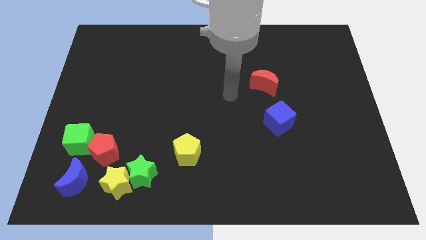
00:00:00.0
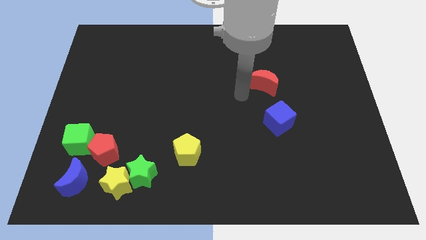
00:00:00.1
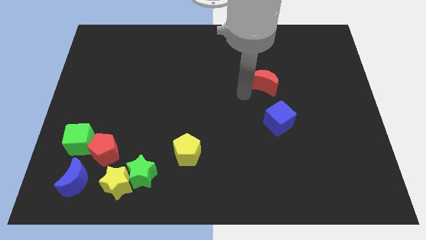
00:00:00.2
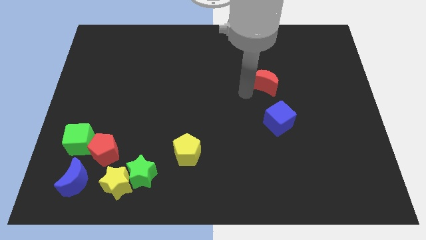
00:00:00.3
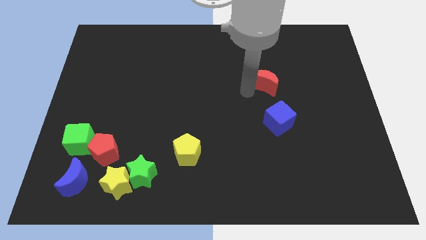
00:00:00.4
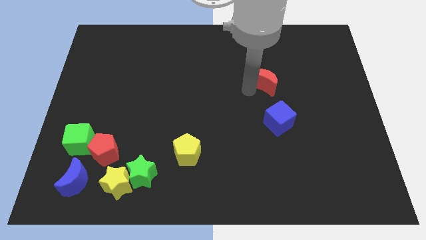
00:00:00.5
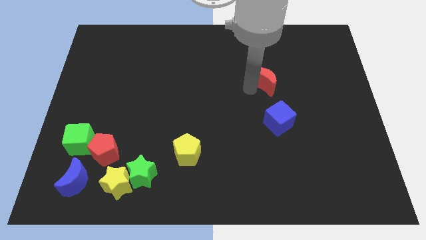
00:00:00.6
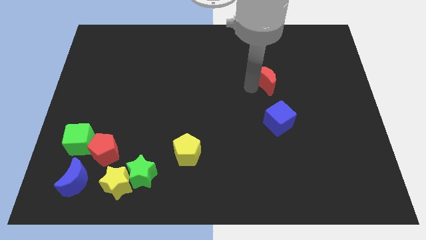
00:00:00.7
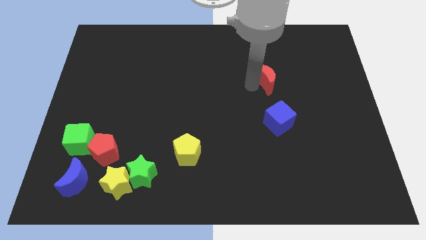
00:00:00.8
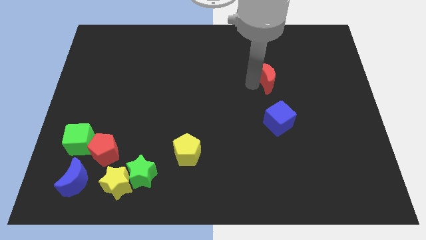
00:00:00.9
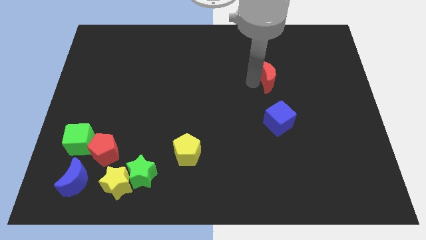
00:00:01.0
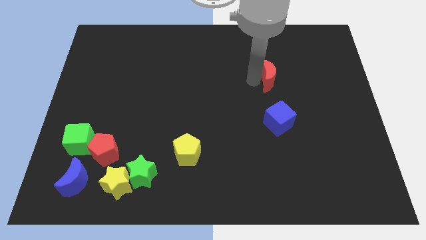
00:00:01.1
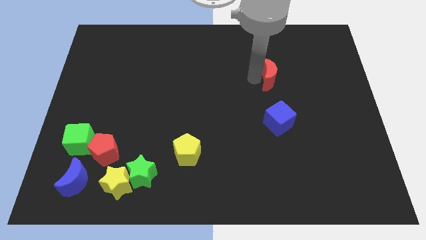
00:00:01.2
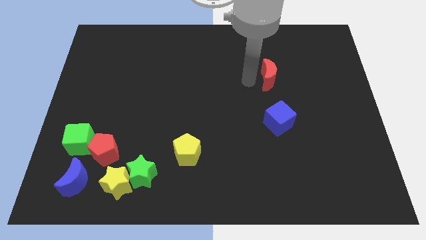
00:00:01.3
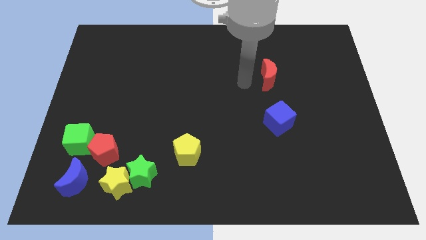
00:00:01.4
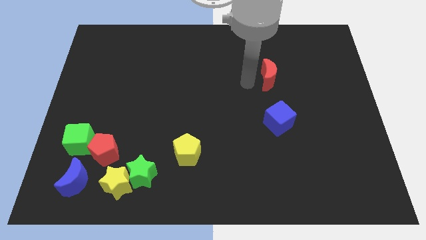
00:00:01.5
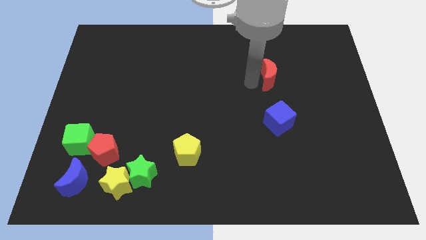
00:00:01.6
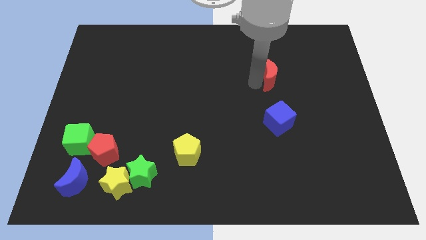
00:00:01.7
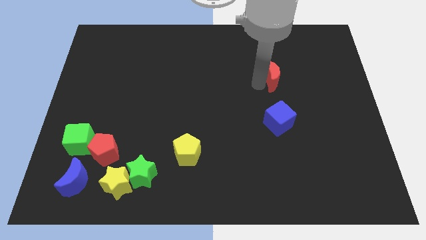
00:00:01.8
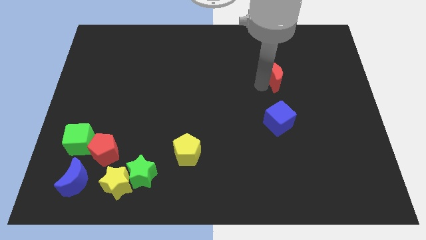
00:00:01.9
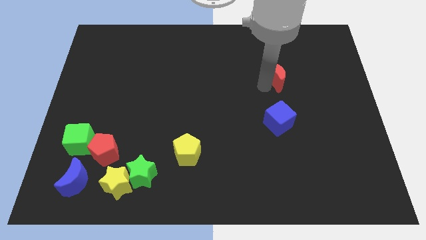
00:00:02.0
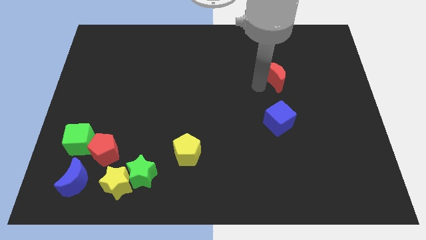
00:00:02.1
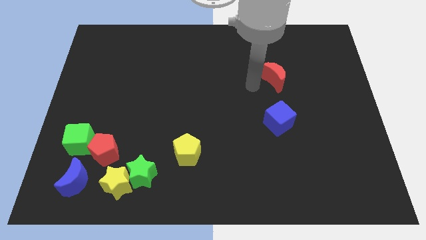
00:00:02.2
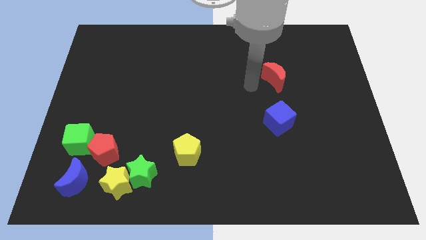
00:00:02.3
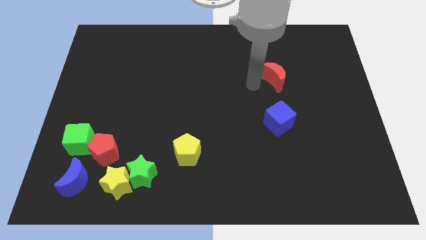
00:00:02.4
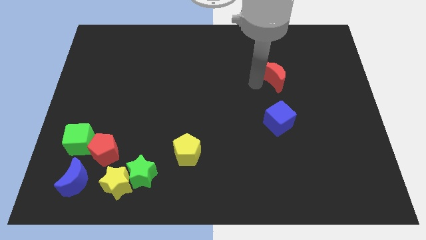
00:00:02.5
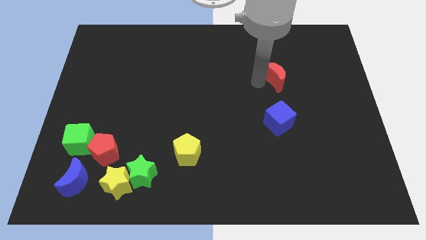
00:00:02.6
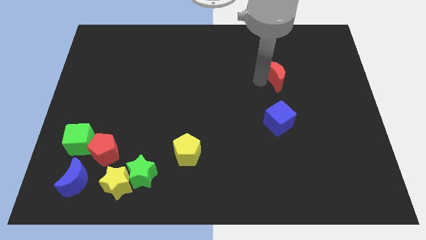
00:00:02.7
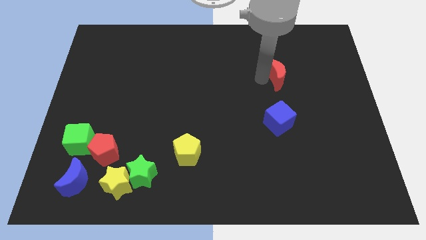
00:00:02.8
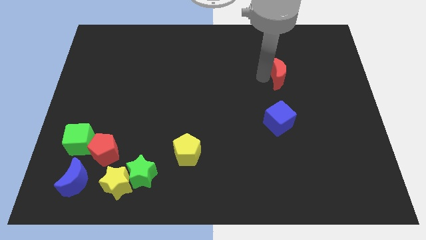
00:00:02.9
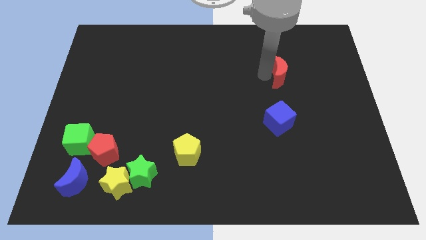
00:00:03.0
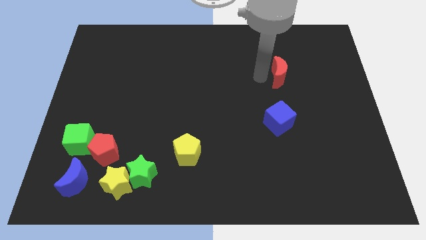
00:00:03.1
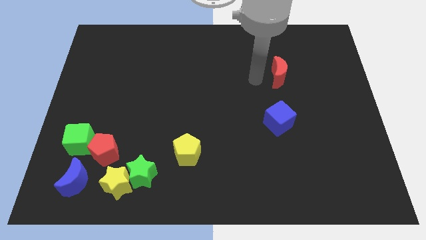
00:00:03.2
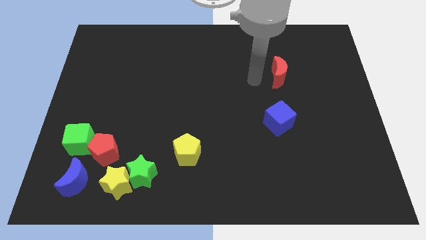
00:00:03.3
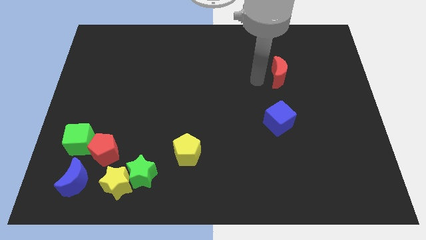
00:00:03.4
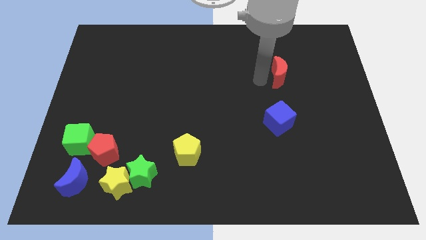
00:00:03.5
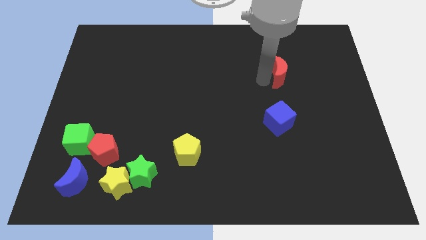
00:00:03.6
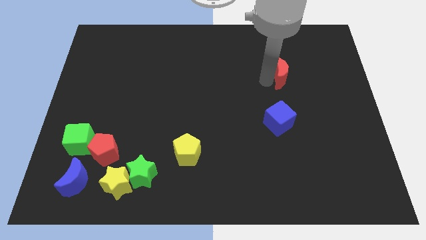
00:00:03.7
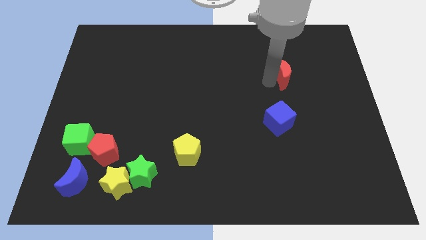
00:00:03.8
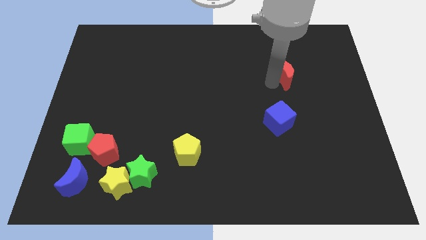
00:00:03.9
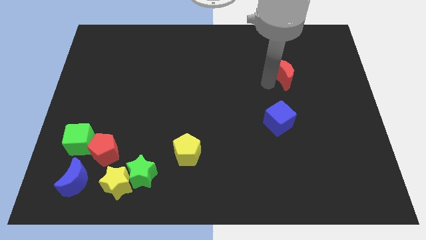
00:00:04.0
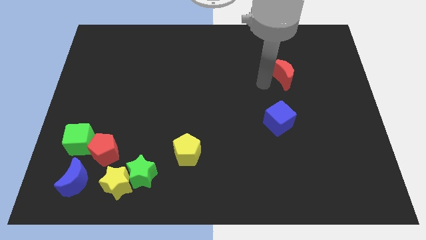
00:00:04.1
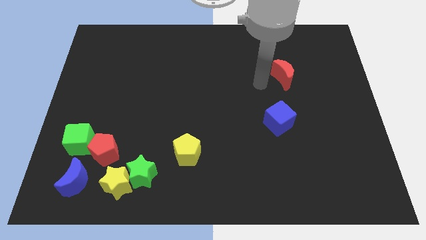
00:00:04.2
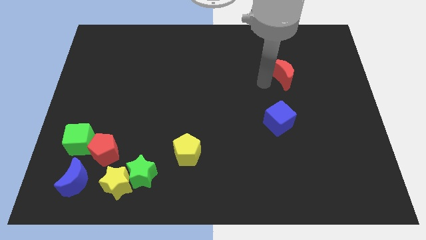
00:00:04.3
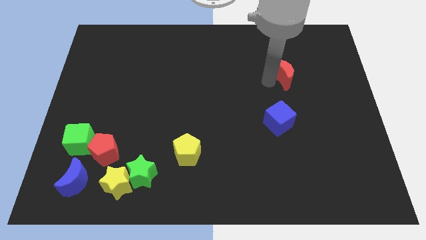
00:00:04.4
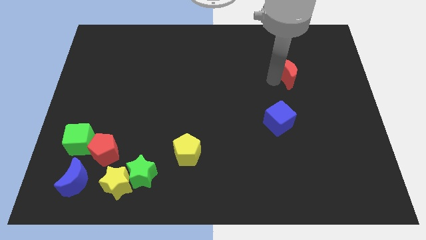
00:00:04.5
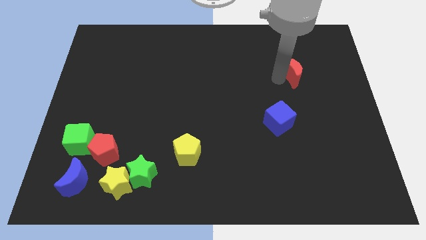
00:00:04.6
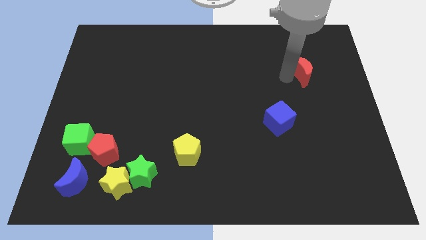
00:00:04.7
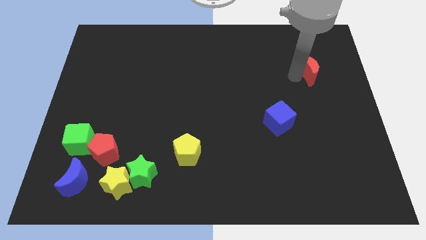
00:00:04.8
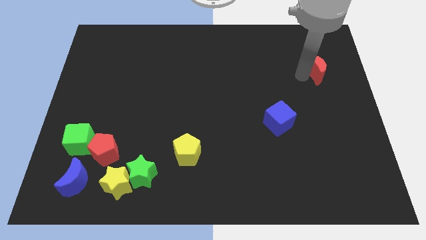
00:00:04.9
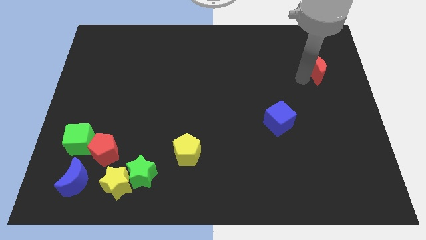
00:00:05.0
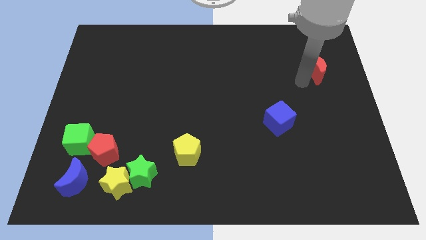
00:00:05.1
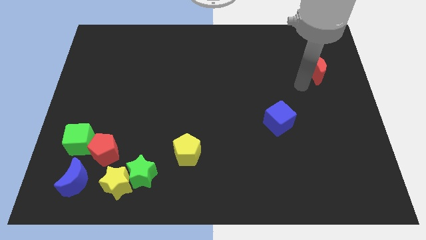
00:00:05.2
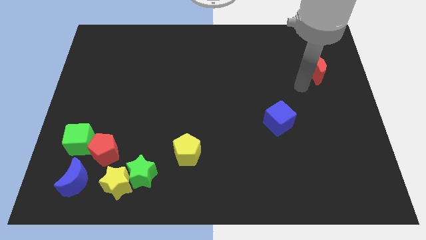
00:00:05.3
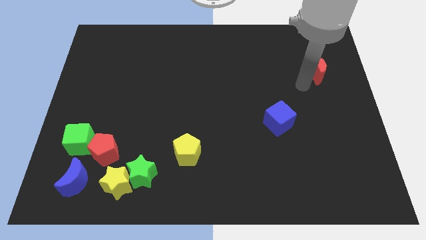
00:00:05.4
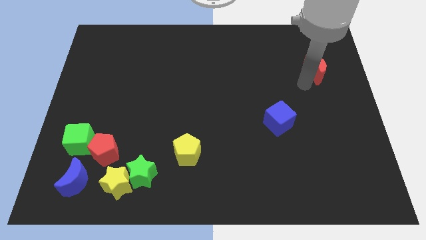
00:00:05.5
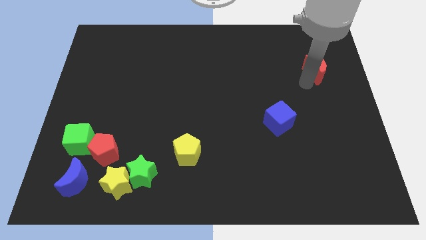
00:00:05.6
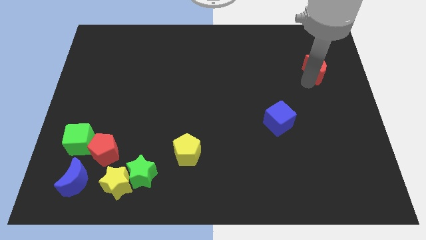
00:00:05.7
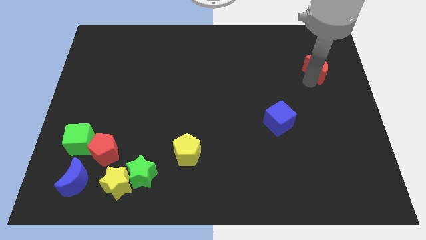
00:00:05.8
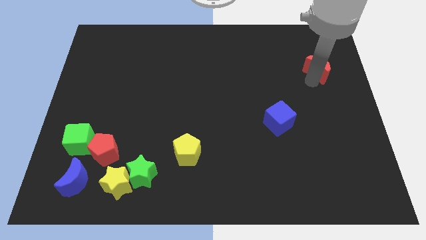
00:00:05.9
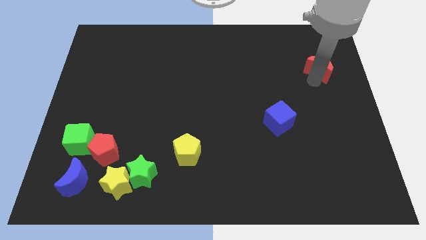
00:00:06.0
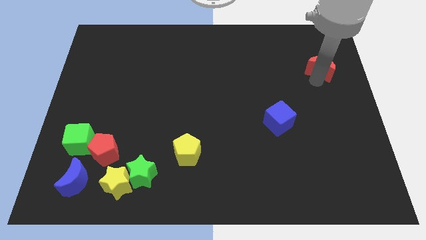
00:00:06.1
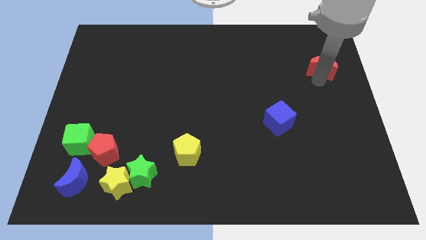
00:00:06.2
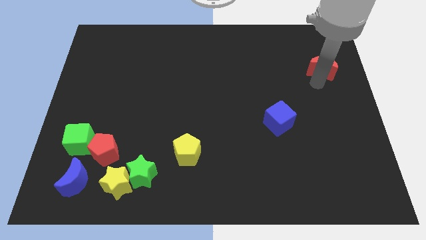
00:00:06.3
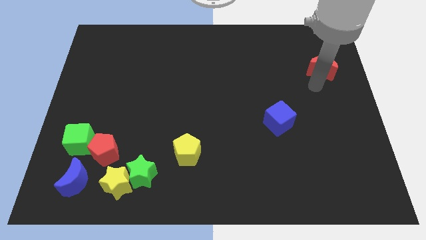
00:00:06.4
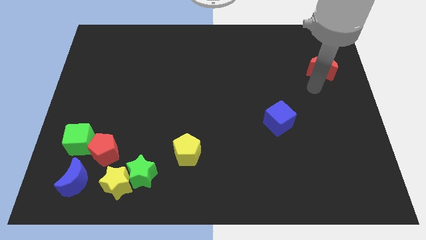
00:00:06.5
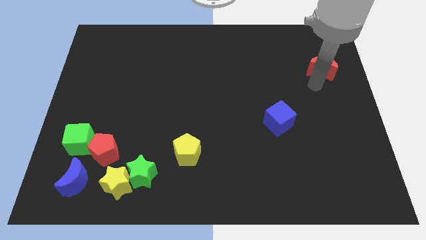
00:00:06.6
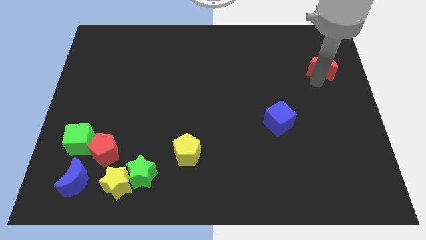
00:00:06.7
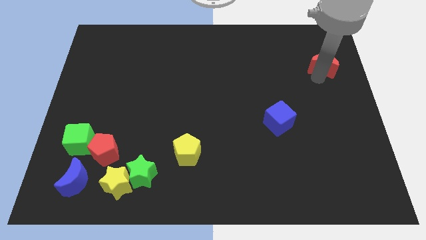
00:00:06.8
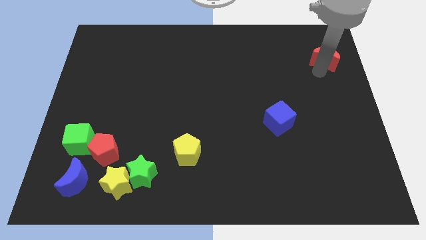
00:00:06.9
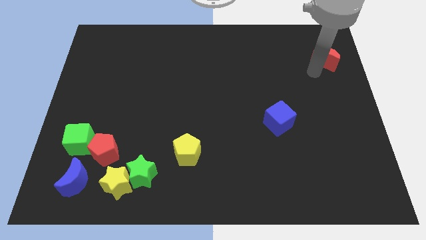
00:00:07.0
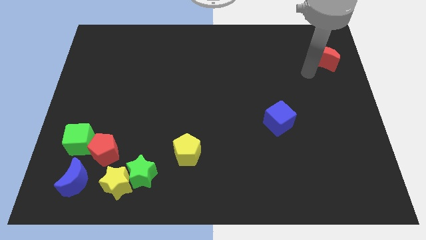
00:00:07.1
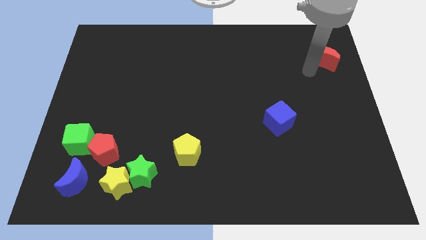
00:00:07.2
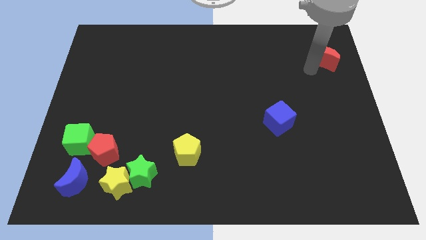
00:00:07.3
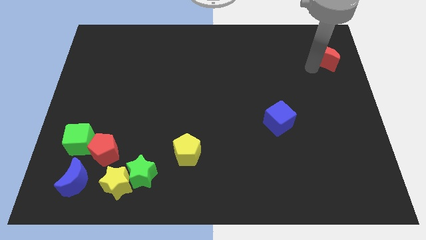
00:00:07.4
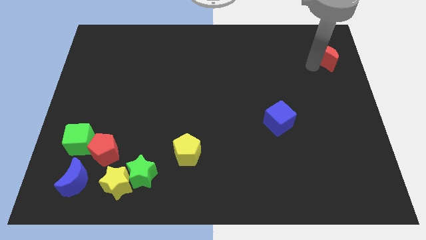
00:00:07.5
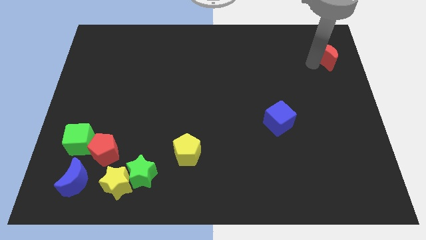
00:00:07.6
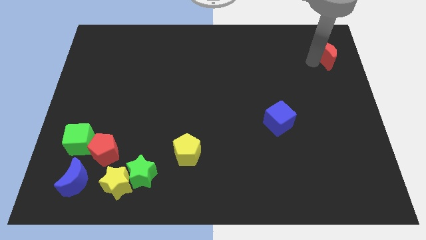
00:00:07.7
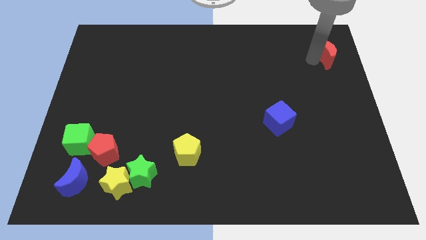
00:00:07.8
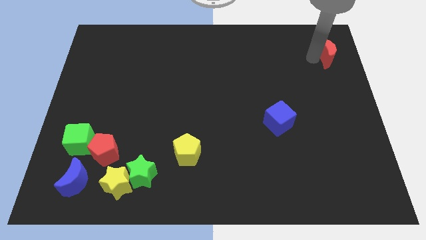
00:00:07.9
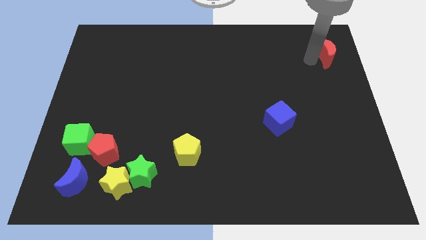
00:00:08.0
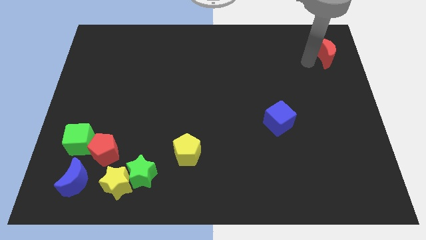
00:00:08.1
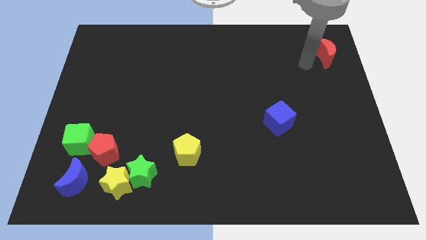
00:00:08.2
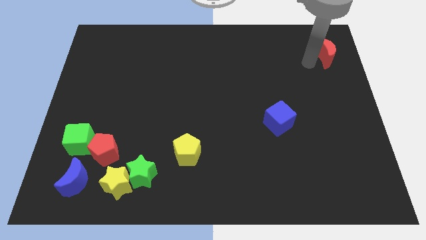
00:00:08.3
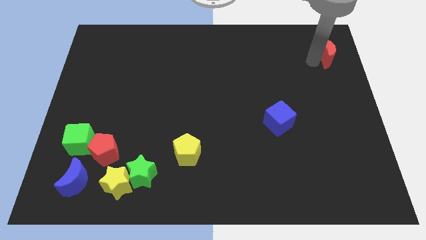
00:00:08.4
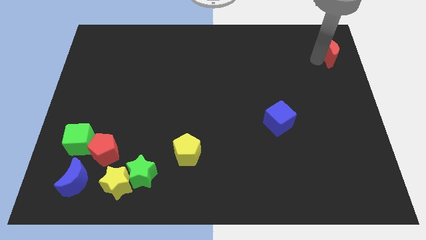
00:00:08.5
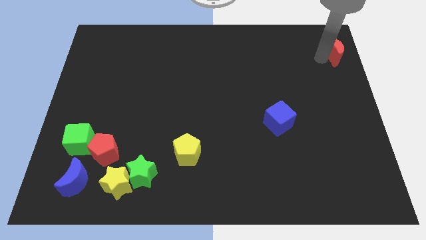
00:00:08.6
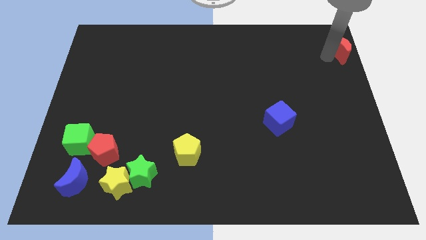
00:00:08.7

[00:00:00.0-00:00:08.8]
move the red moon to the upper right corner
